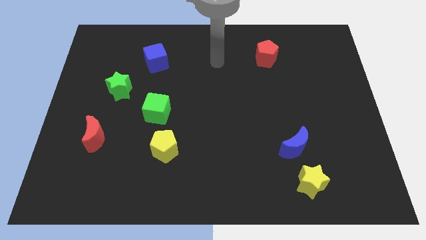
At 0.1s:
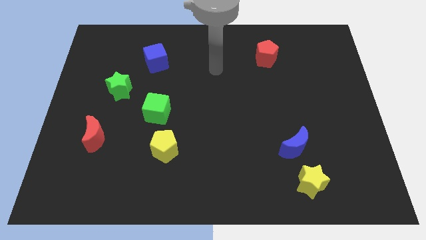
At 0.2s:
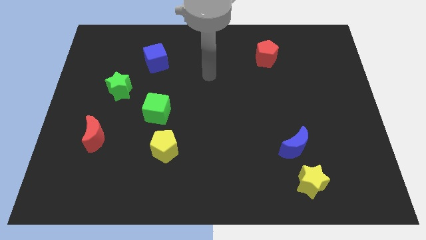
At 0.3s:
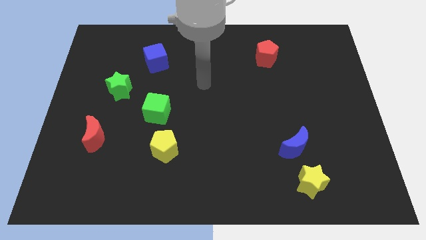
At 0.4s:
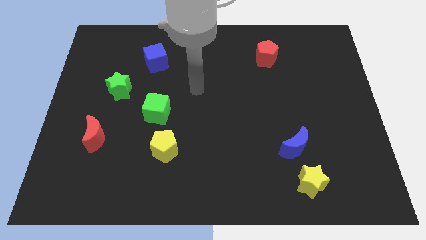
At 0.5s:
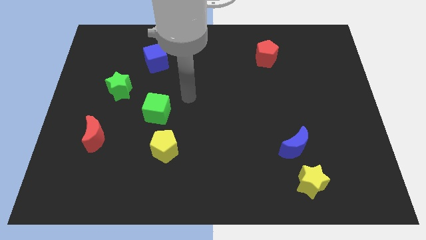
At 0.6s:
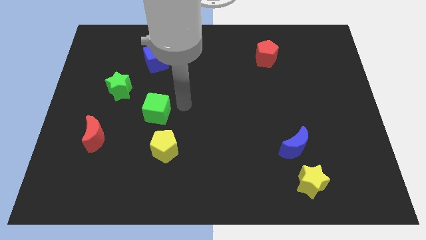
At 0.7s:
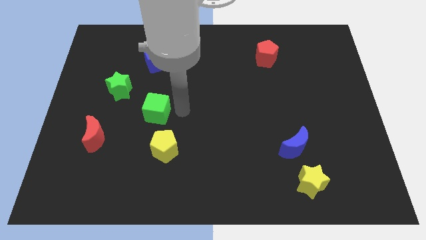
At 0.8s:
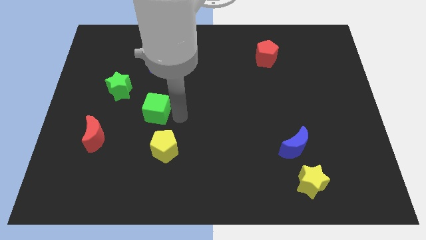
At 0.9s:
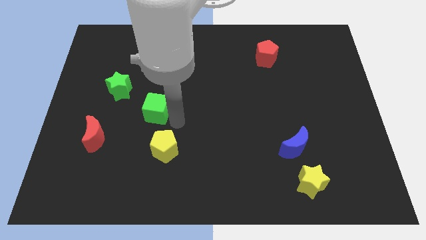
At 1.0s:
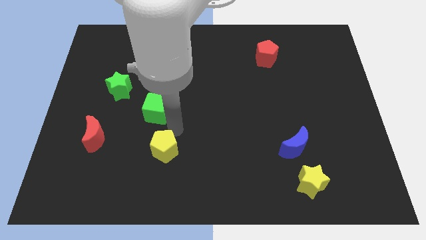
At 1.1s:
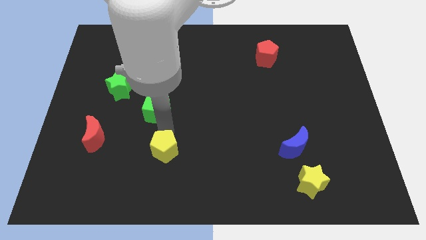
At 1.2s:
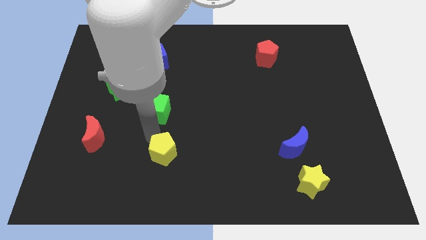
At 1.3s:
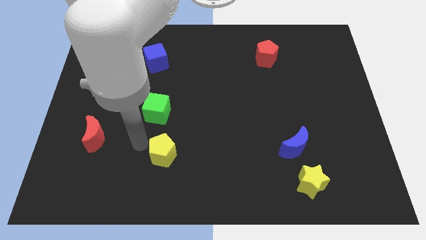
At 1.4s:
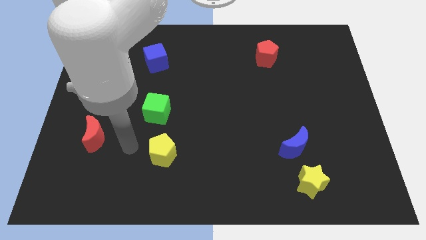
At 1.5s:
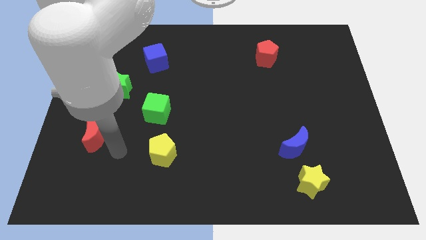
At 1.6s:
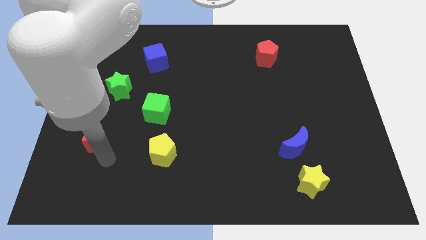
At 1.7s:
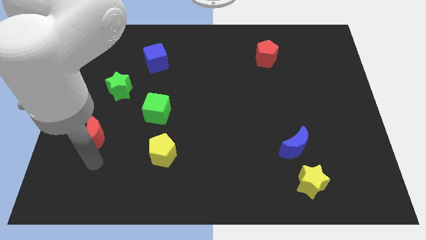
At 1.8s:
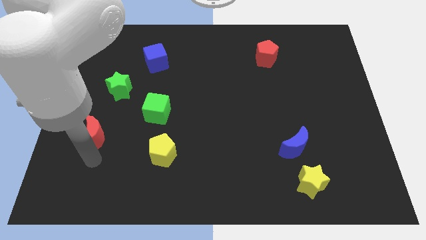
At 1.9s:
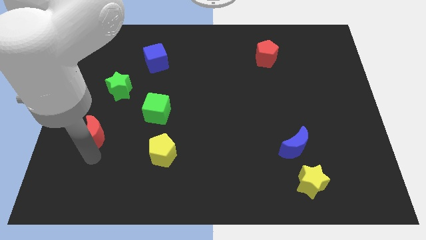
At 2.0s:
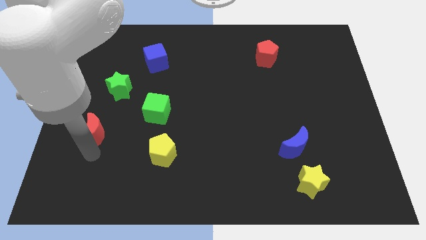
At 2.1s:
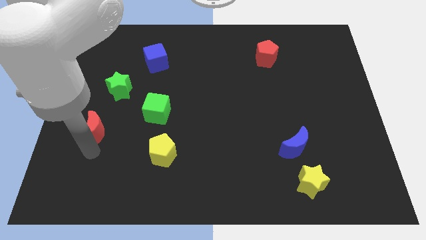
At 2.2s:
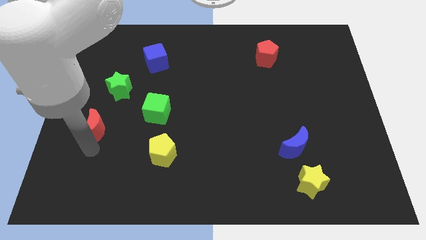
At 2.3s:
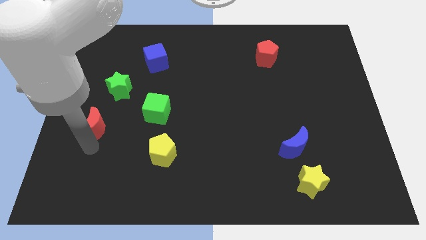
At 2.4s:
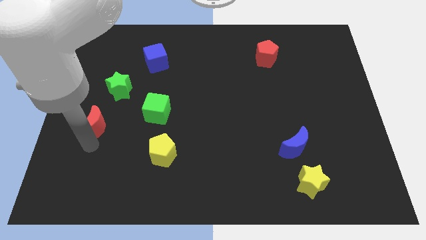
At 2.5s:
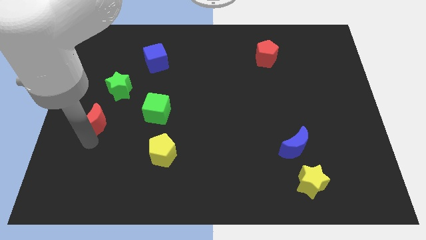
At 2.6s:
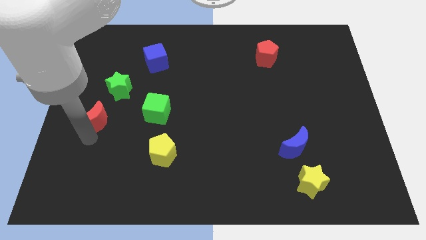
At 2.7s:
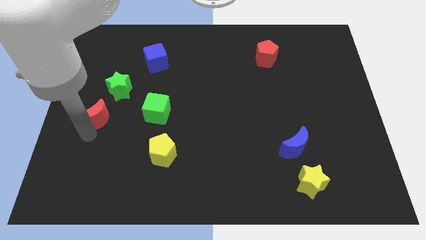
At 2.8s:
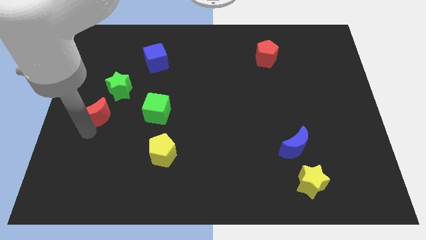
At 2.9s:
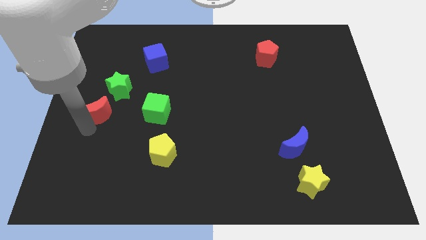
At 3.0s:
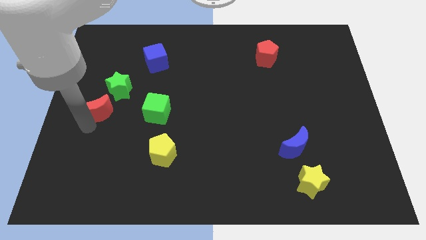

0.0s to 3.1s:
push the red moon a little up

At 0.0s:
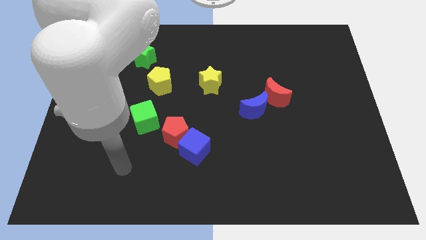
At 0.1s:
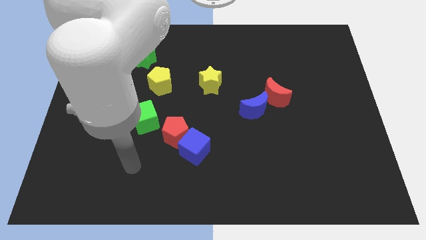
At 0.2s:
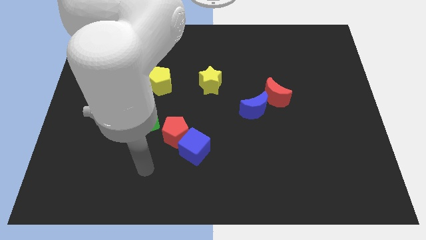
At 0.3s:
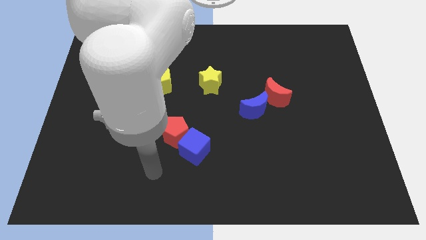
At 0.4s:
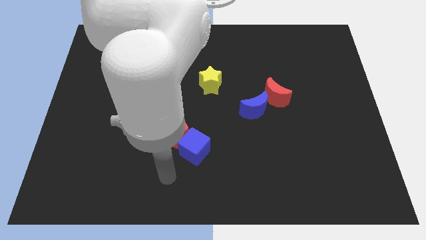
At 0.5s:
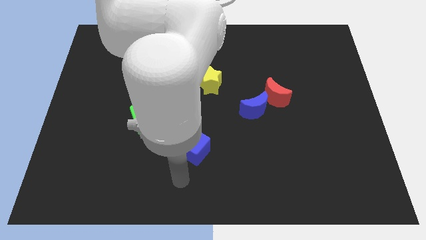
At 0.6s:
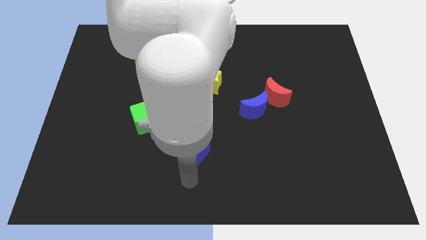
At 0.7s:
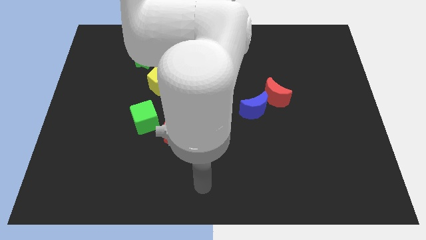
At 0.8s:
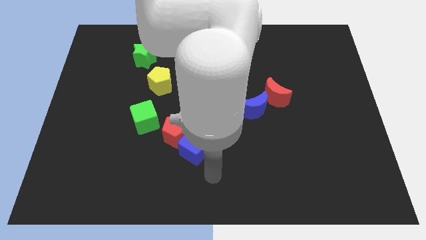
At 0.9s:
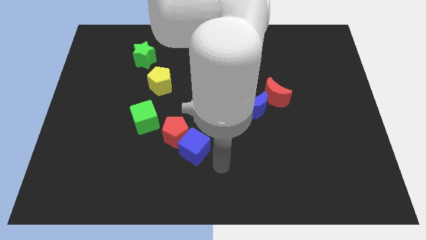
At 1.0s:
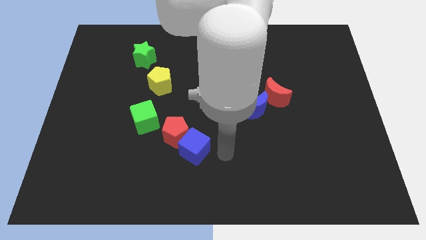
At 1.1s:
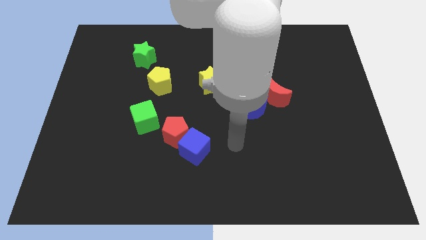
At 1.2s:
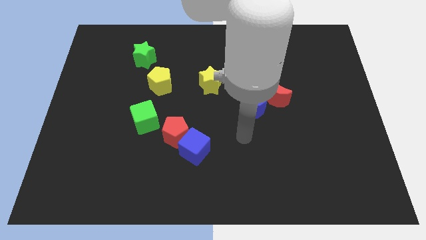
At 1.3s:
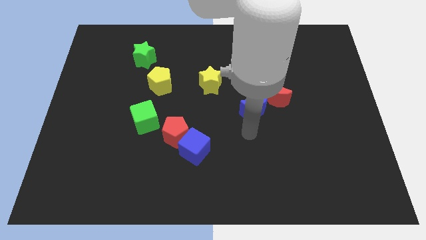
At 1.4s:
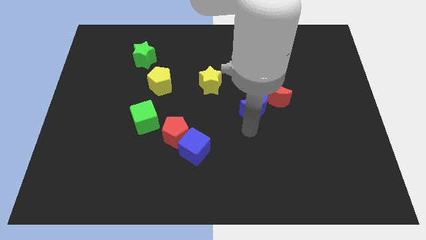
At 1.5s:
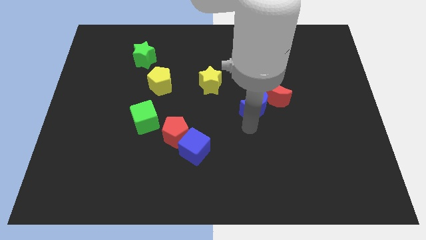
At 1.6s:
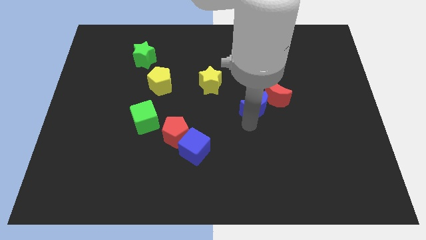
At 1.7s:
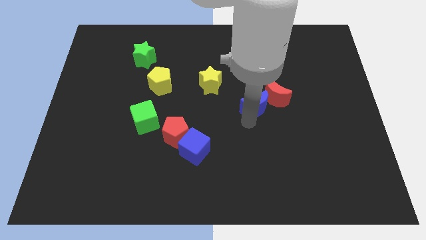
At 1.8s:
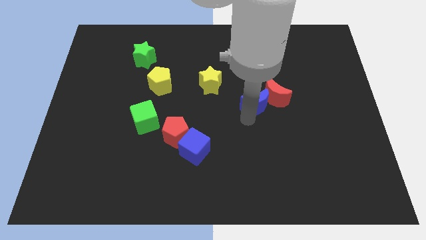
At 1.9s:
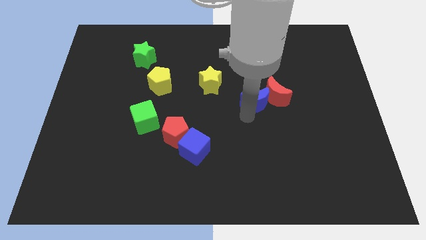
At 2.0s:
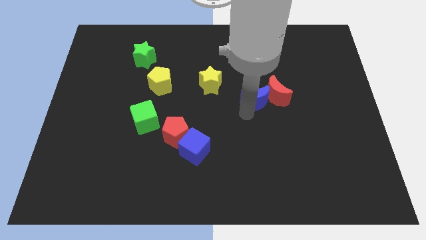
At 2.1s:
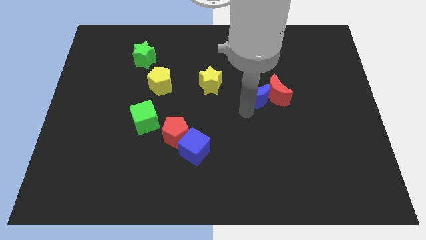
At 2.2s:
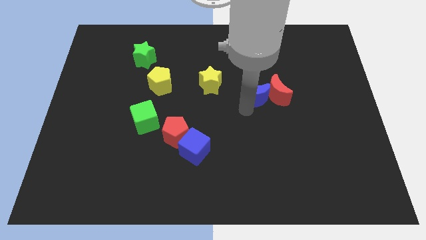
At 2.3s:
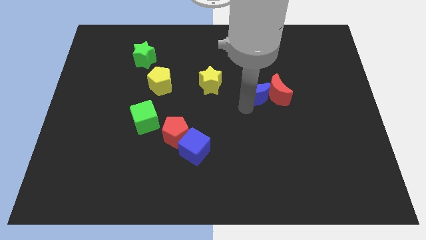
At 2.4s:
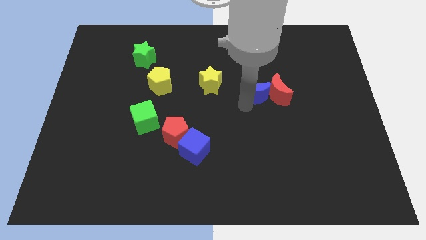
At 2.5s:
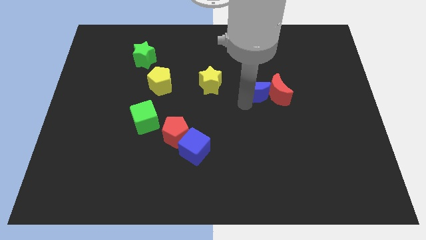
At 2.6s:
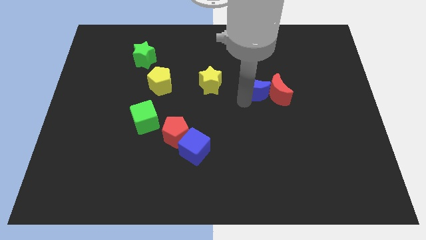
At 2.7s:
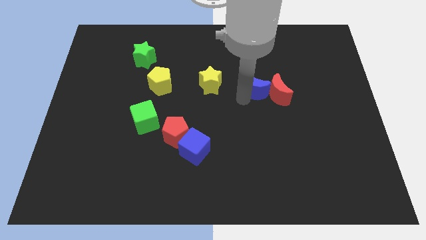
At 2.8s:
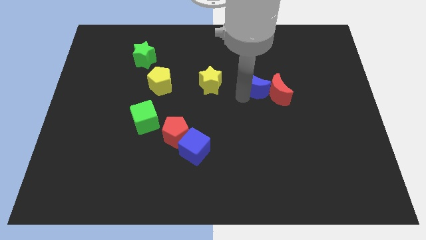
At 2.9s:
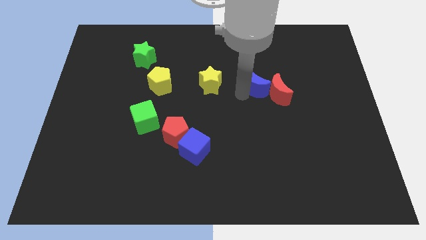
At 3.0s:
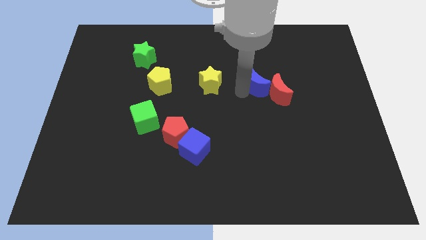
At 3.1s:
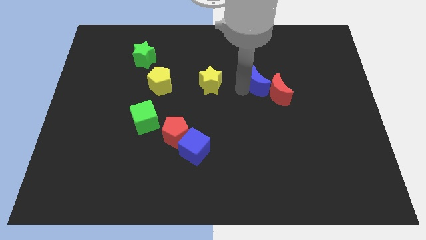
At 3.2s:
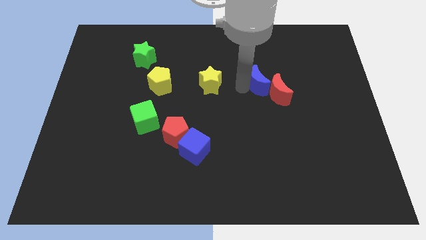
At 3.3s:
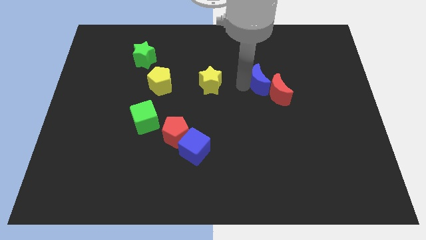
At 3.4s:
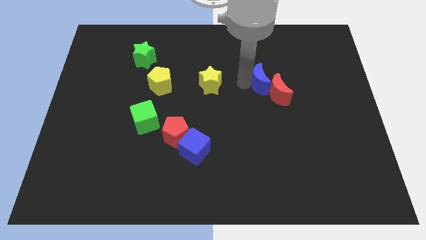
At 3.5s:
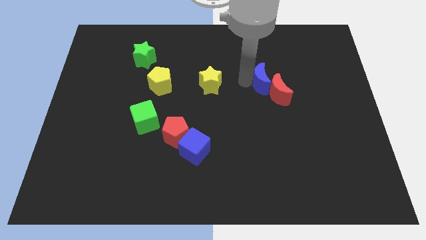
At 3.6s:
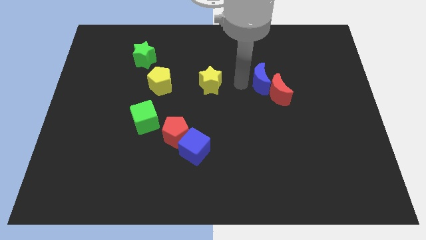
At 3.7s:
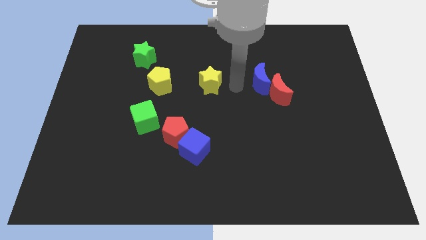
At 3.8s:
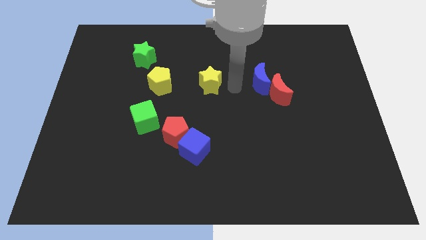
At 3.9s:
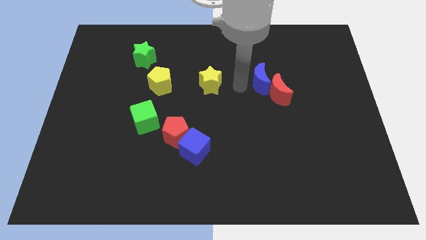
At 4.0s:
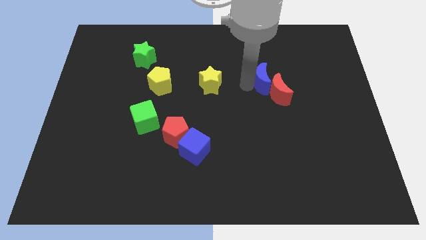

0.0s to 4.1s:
slightly push the blue moon up and to the right

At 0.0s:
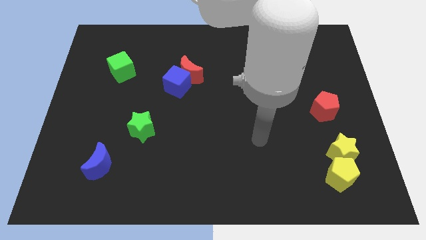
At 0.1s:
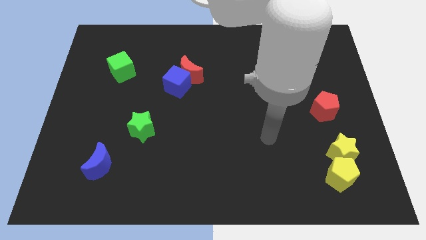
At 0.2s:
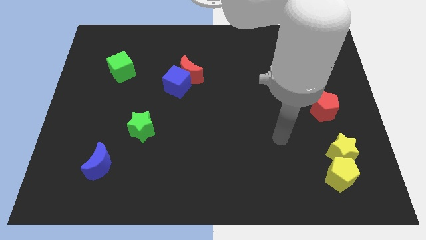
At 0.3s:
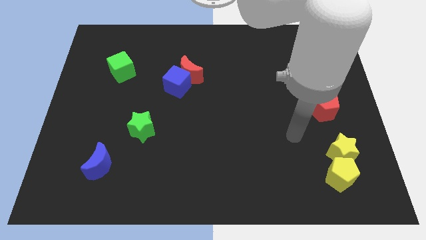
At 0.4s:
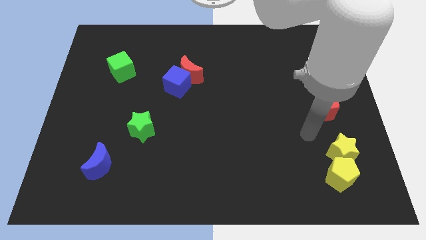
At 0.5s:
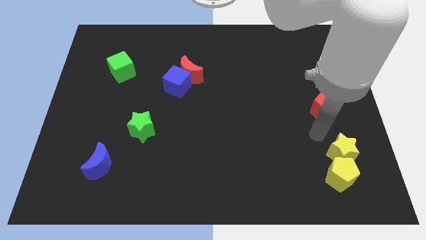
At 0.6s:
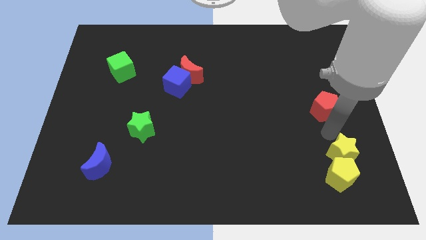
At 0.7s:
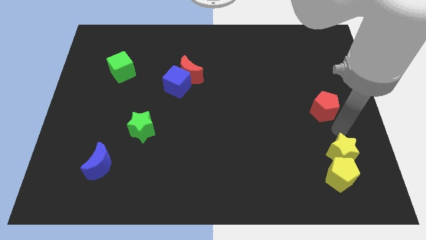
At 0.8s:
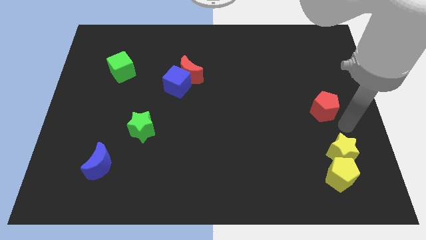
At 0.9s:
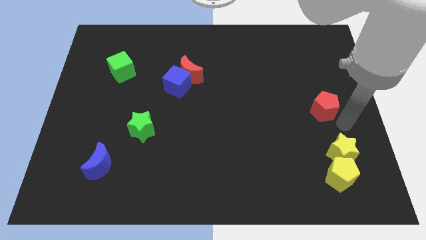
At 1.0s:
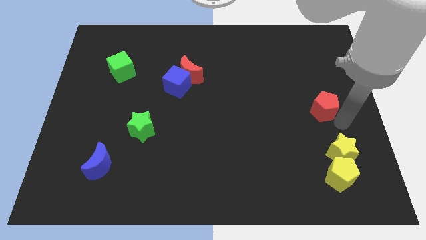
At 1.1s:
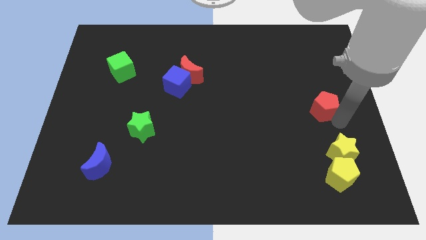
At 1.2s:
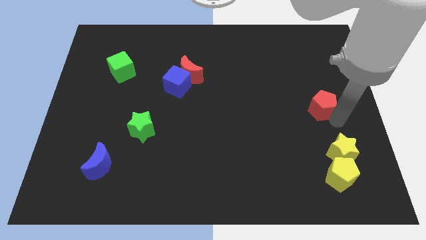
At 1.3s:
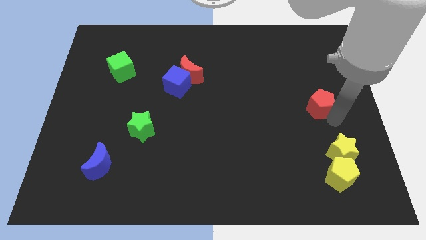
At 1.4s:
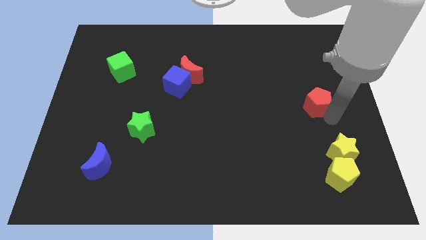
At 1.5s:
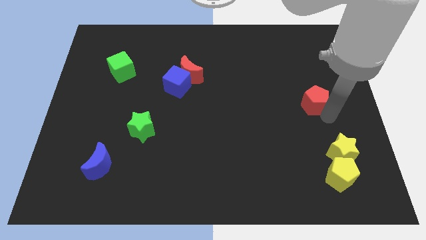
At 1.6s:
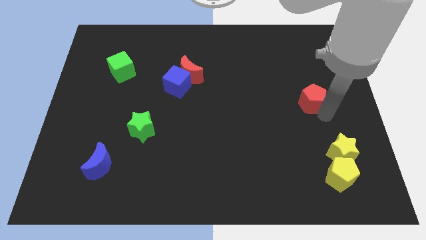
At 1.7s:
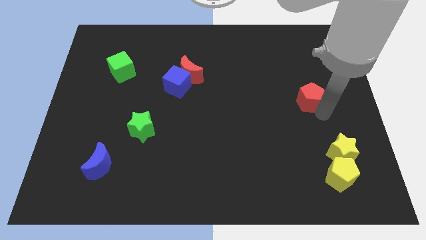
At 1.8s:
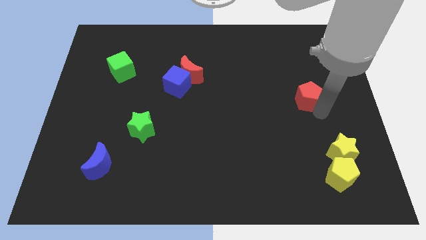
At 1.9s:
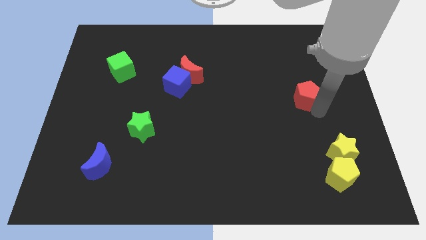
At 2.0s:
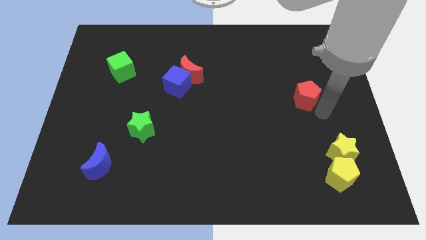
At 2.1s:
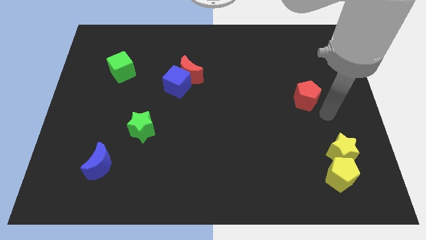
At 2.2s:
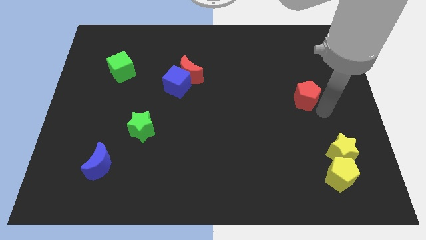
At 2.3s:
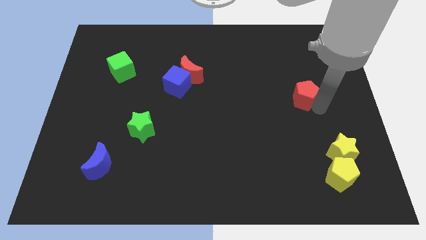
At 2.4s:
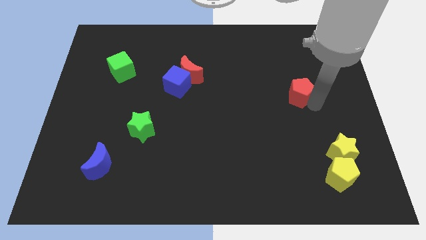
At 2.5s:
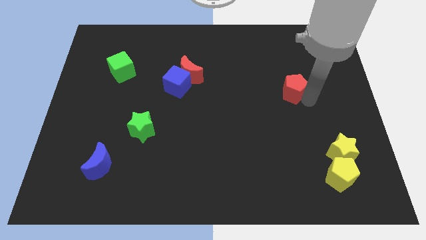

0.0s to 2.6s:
slide the red pentagon a bit up and left
